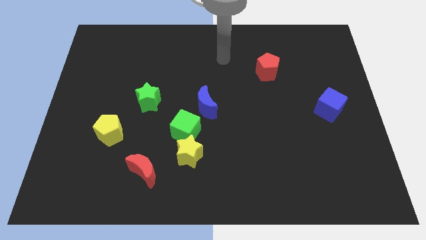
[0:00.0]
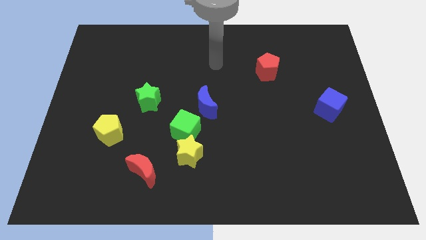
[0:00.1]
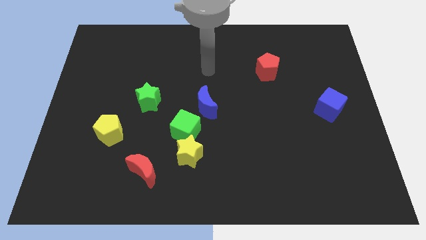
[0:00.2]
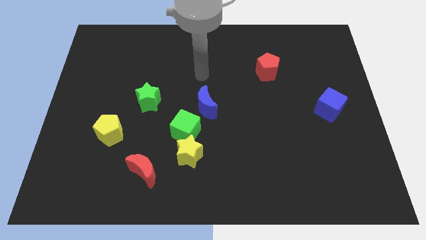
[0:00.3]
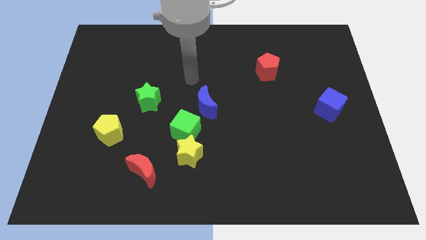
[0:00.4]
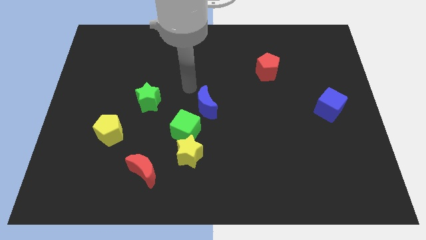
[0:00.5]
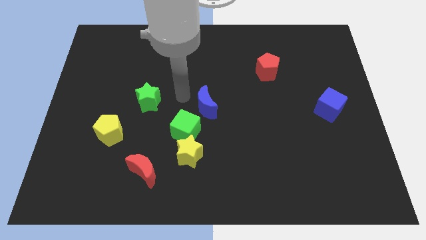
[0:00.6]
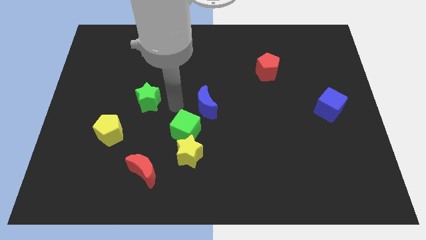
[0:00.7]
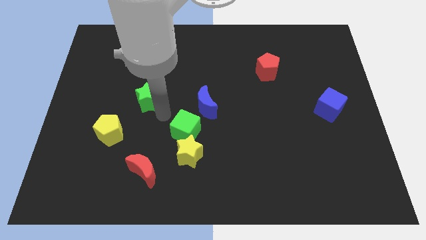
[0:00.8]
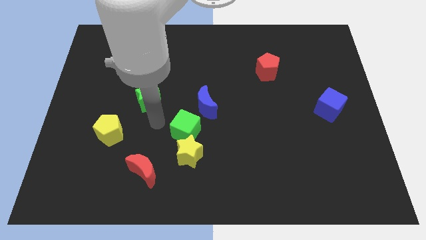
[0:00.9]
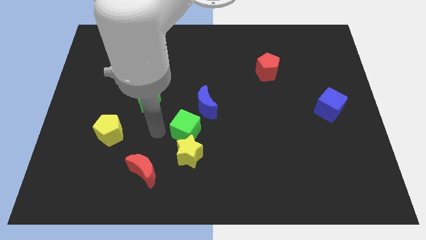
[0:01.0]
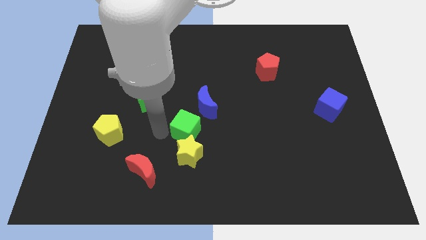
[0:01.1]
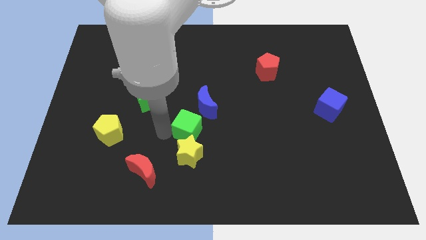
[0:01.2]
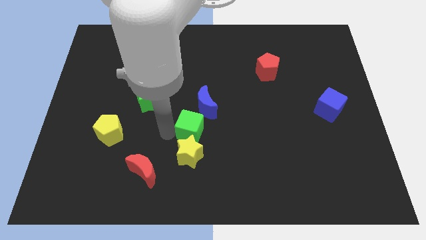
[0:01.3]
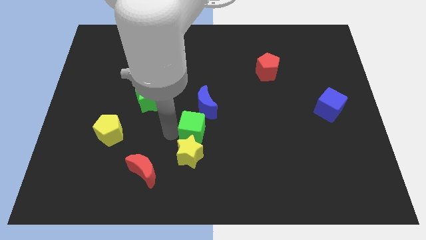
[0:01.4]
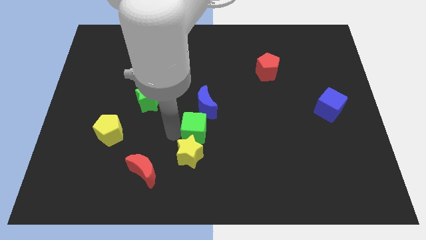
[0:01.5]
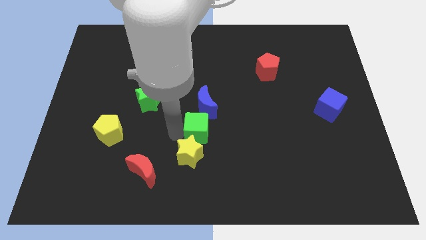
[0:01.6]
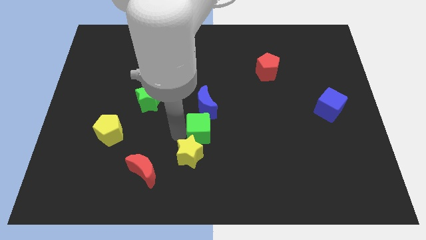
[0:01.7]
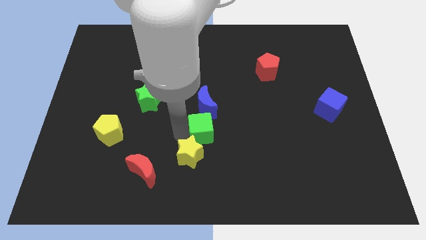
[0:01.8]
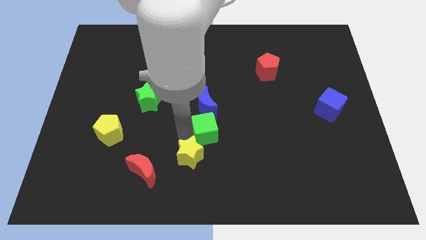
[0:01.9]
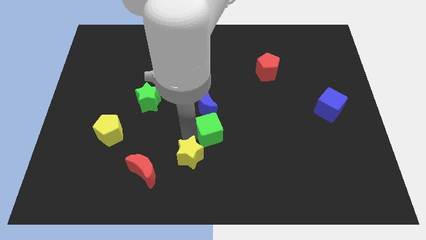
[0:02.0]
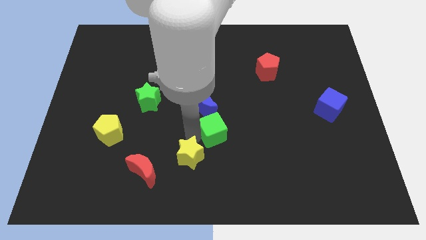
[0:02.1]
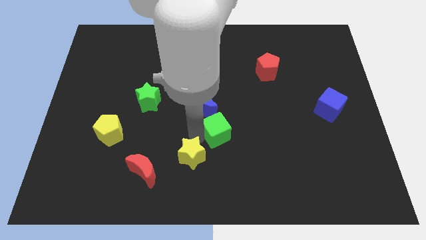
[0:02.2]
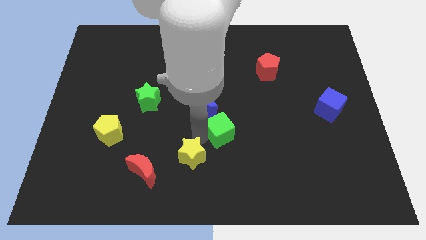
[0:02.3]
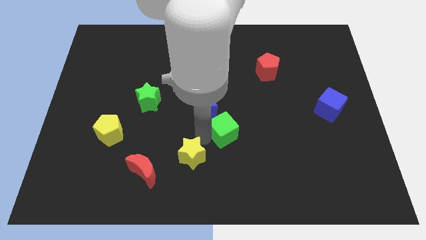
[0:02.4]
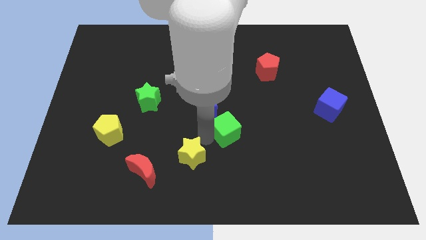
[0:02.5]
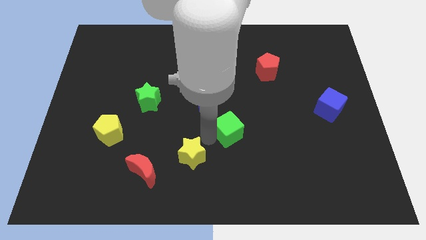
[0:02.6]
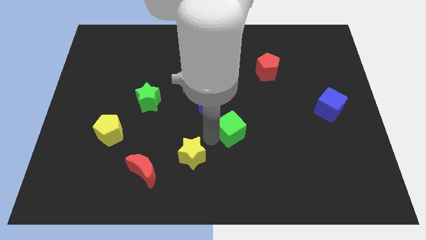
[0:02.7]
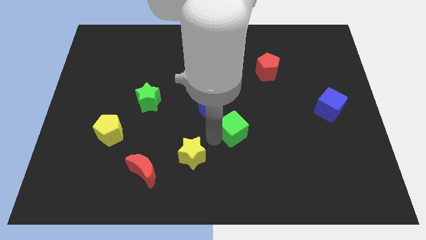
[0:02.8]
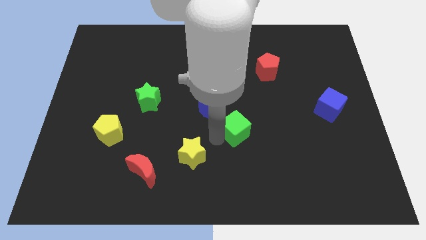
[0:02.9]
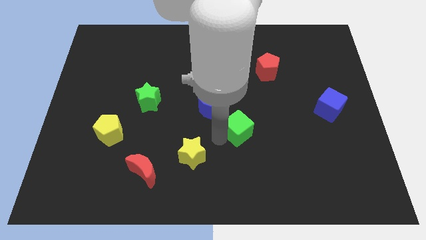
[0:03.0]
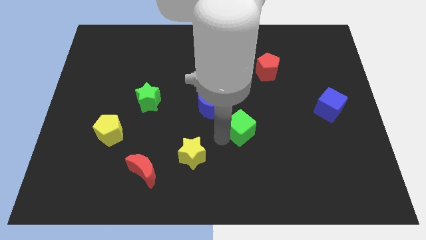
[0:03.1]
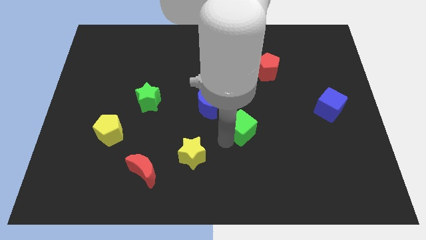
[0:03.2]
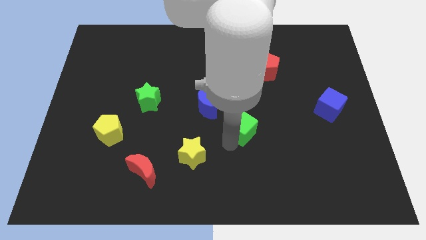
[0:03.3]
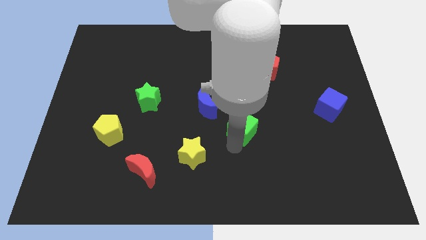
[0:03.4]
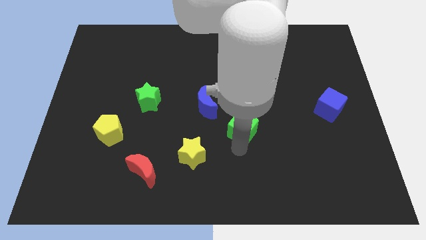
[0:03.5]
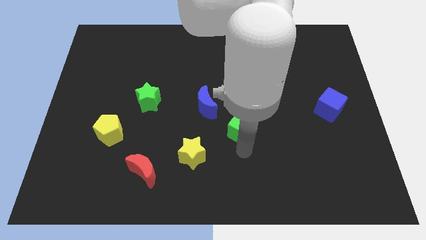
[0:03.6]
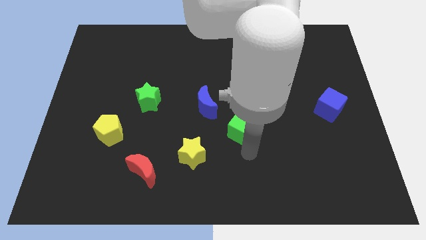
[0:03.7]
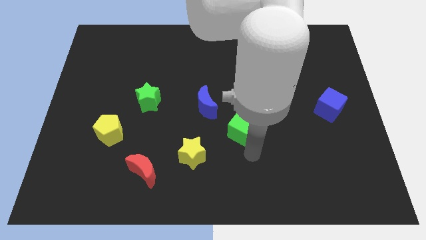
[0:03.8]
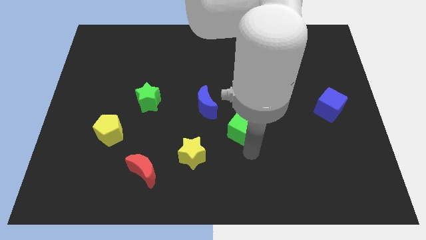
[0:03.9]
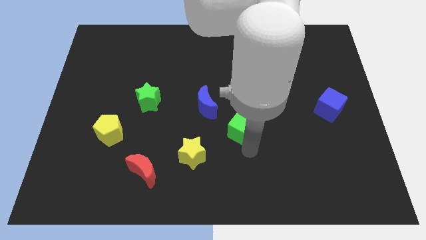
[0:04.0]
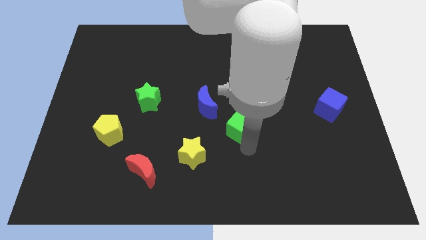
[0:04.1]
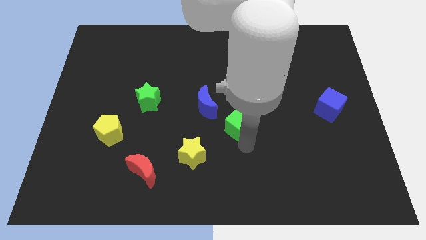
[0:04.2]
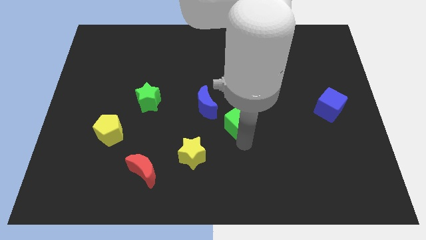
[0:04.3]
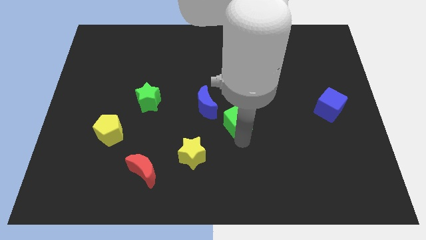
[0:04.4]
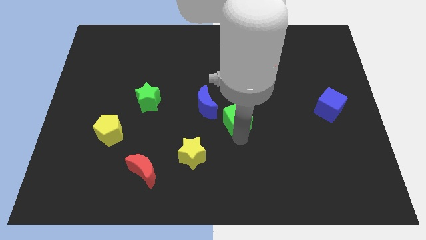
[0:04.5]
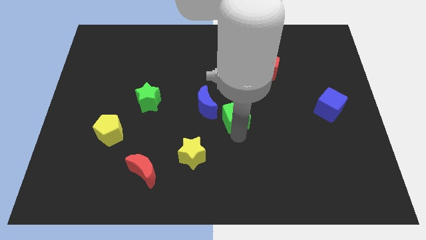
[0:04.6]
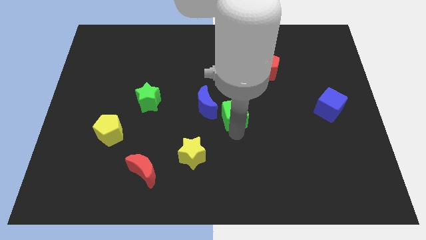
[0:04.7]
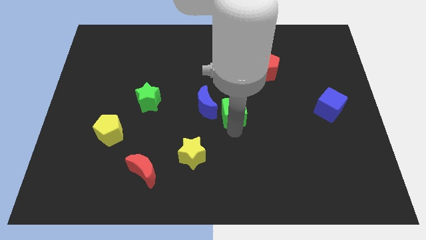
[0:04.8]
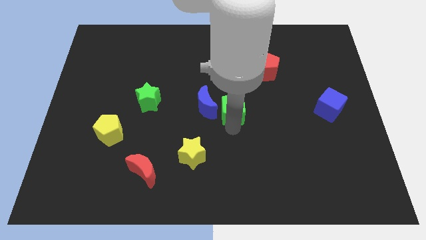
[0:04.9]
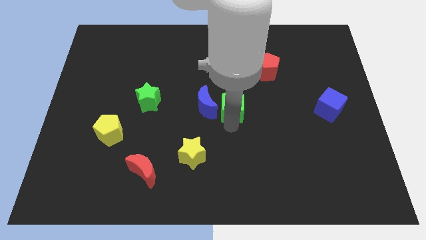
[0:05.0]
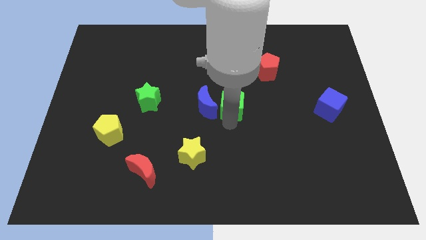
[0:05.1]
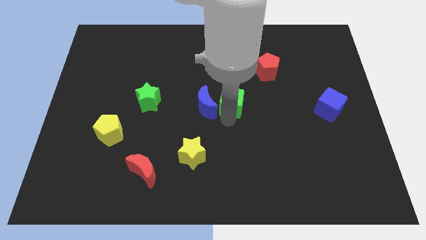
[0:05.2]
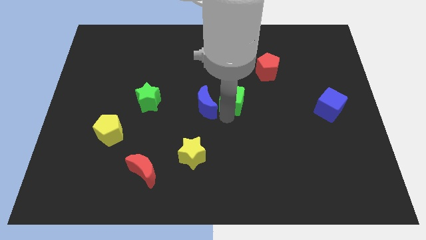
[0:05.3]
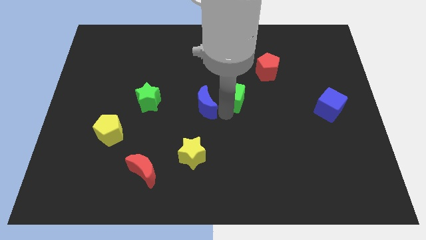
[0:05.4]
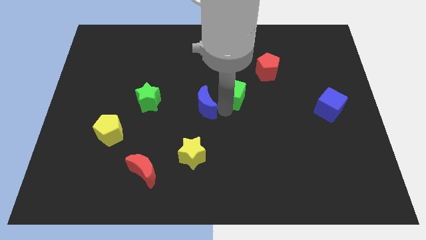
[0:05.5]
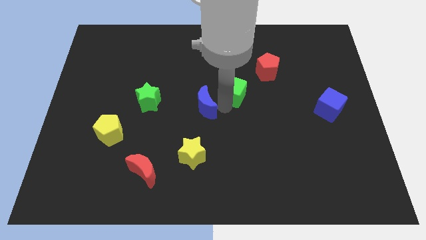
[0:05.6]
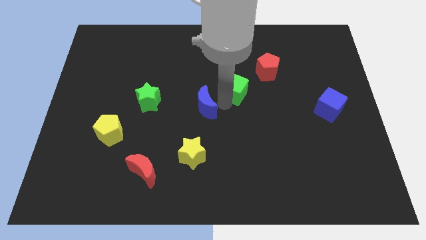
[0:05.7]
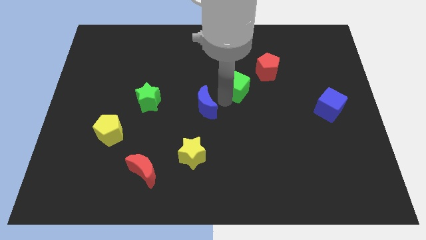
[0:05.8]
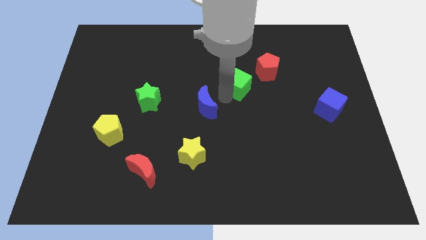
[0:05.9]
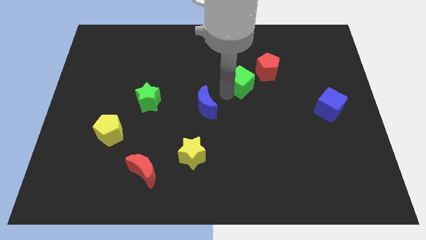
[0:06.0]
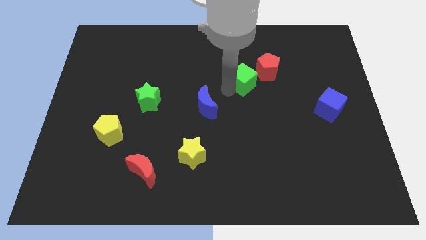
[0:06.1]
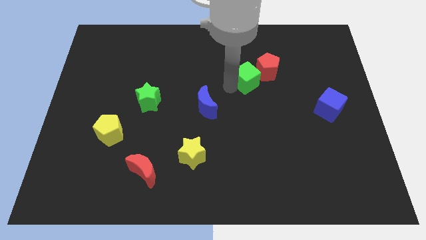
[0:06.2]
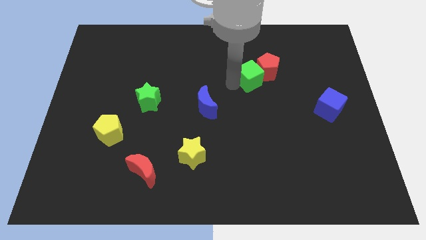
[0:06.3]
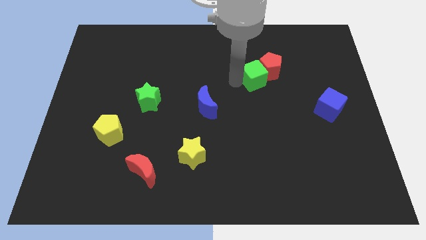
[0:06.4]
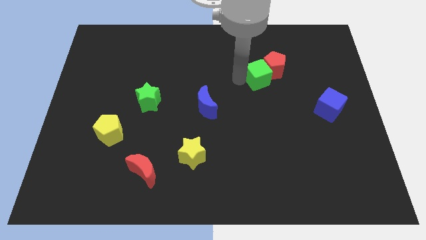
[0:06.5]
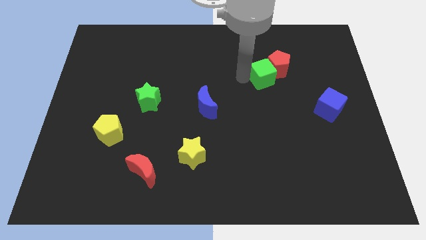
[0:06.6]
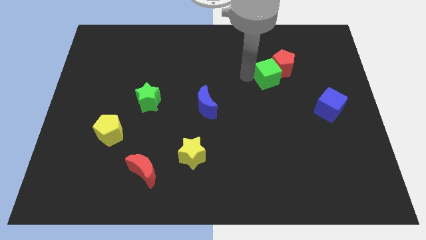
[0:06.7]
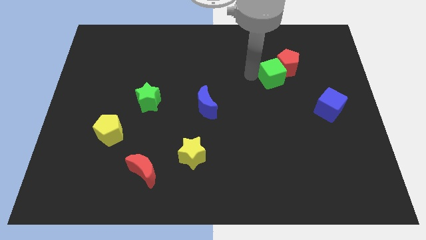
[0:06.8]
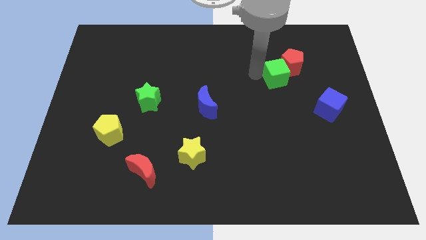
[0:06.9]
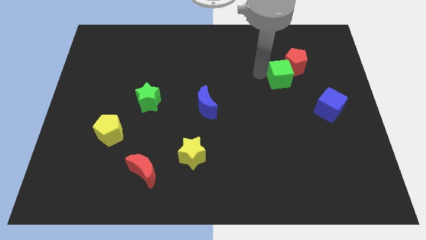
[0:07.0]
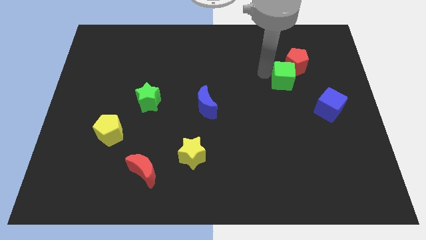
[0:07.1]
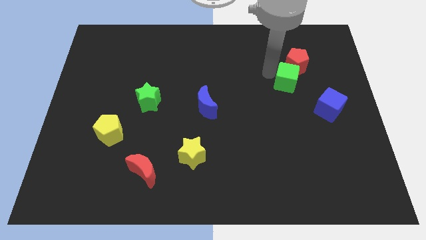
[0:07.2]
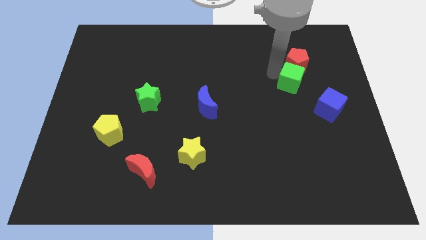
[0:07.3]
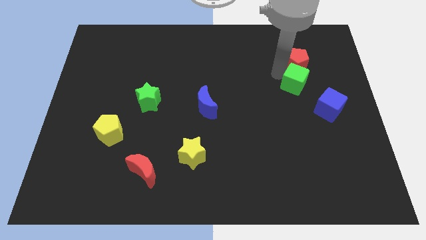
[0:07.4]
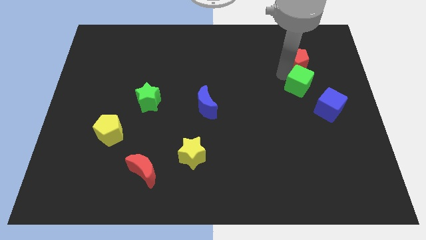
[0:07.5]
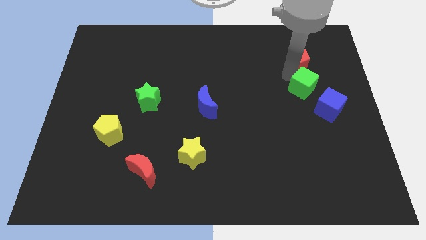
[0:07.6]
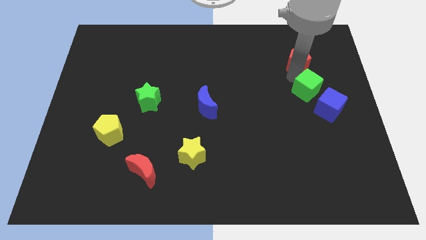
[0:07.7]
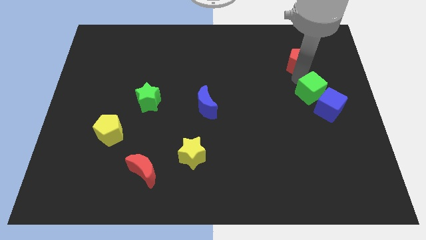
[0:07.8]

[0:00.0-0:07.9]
slide the green cube next to the blue cube
